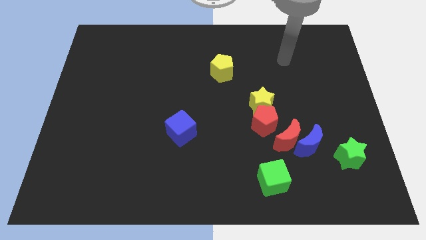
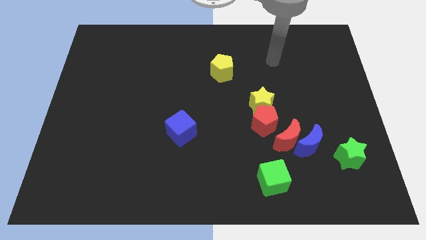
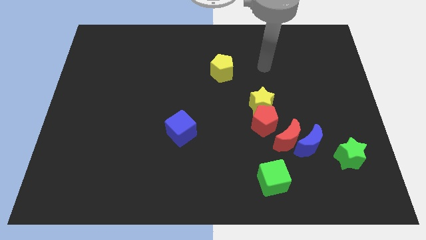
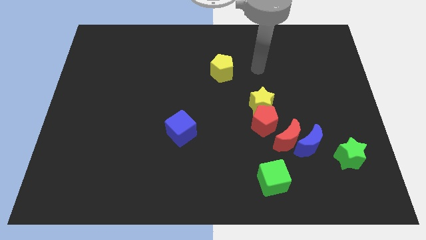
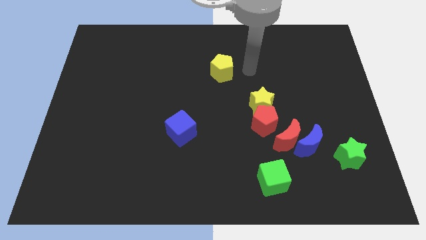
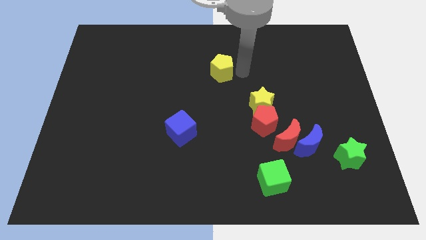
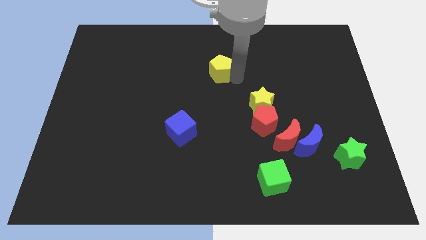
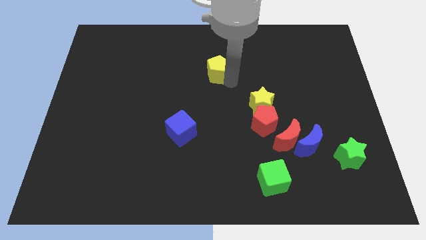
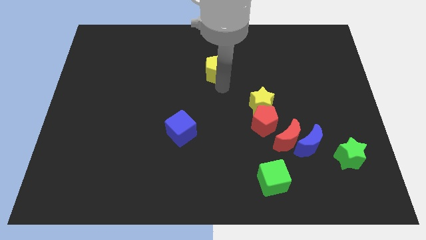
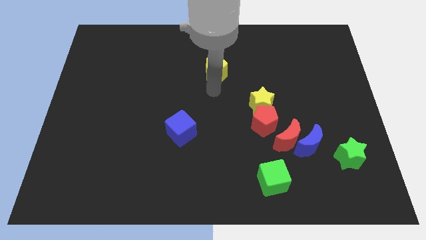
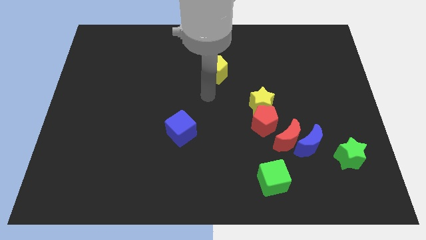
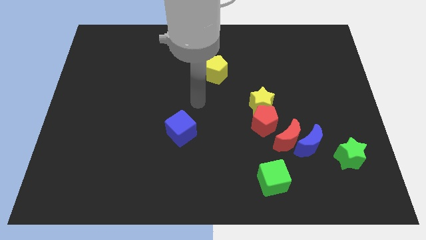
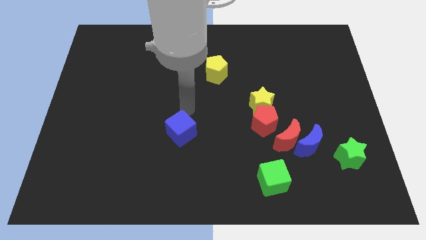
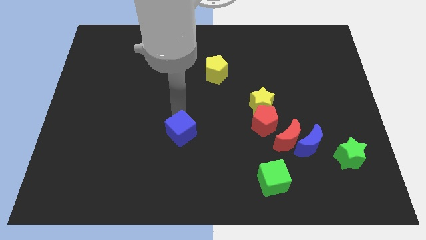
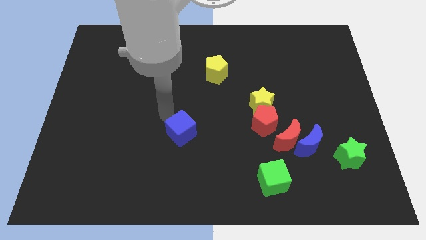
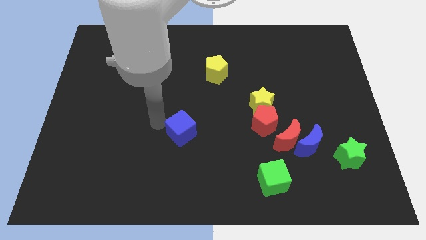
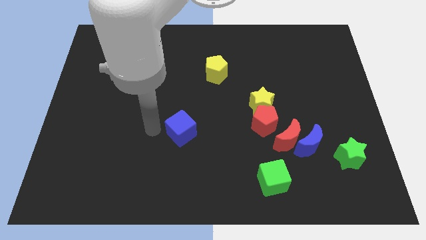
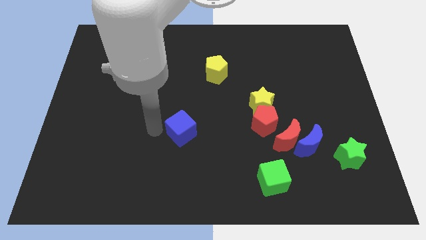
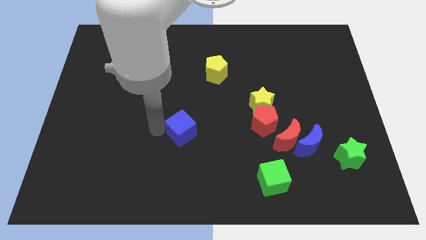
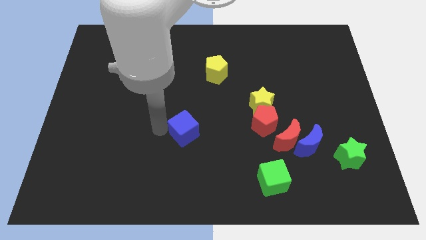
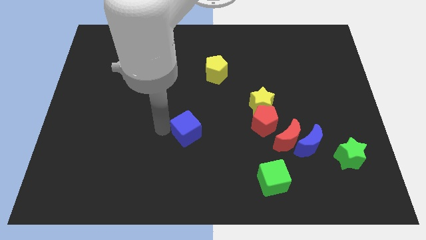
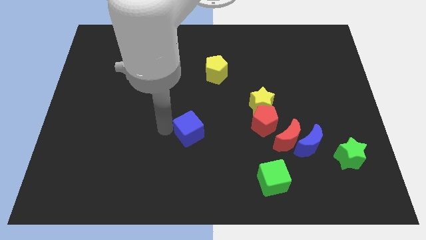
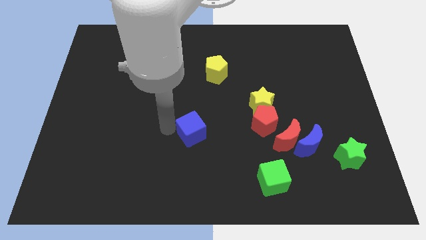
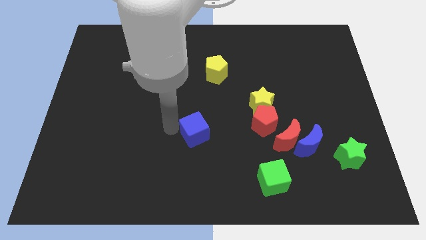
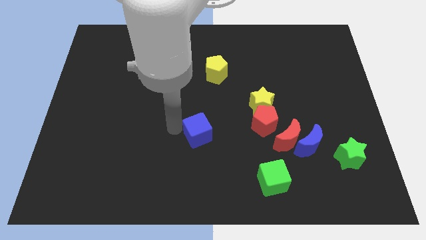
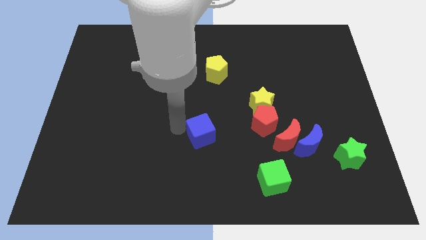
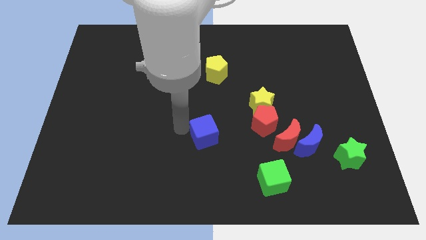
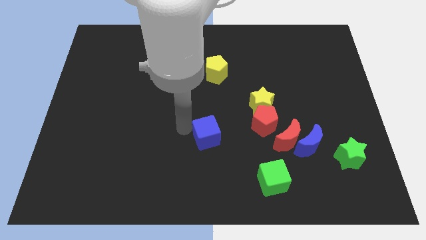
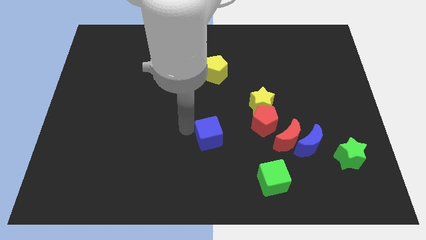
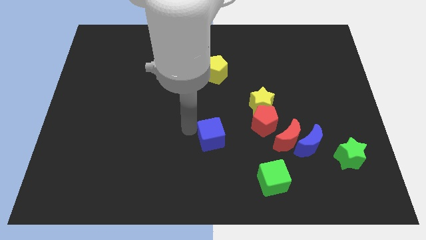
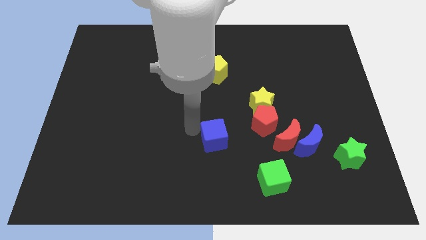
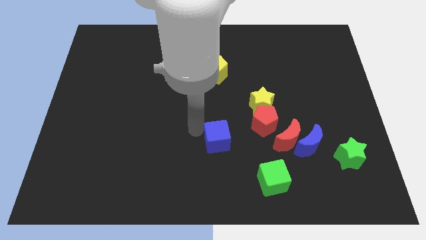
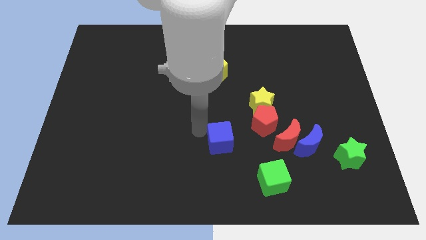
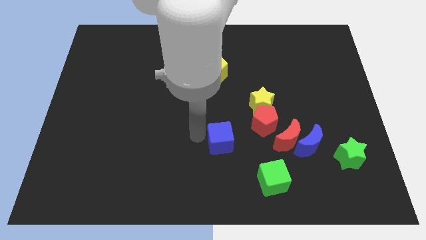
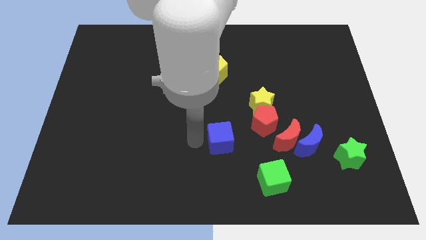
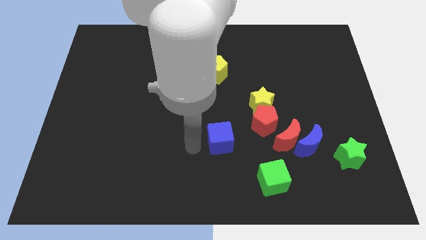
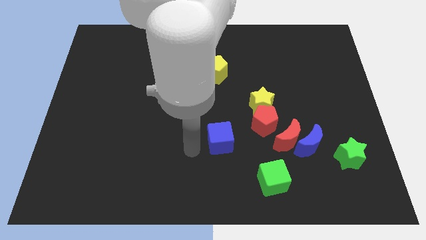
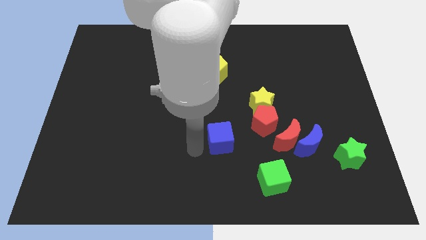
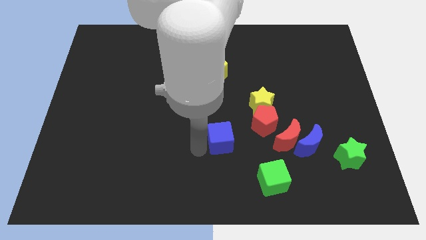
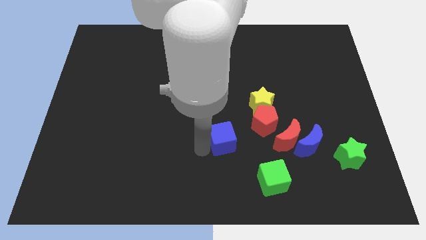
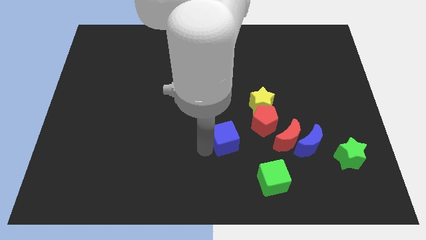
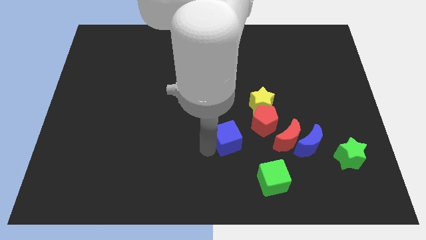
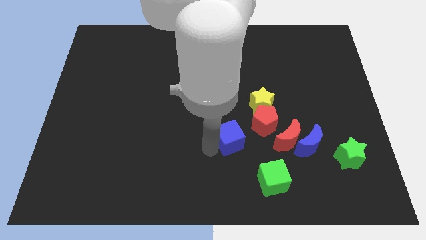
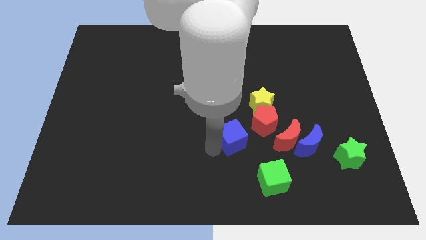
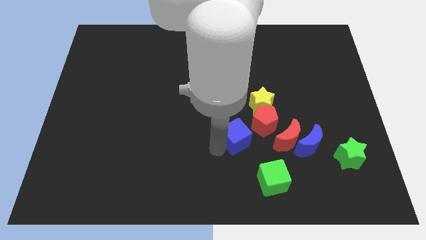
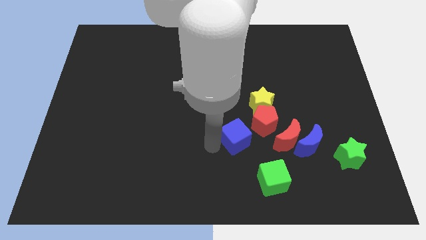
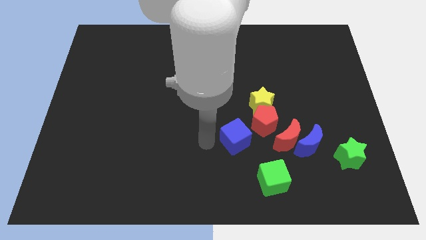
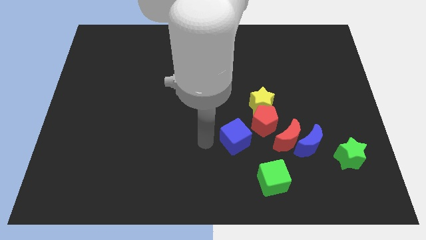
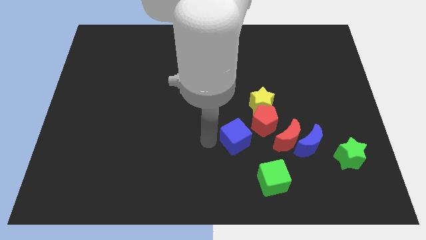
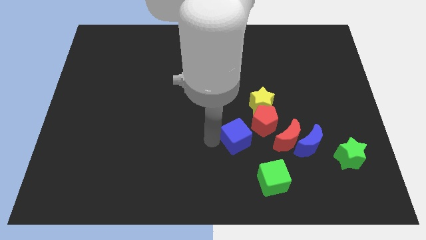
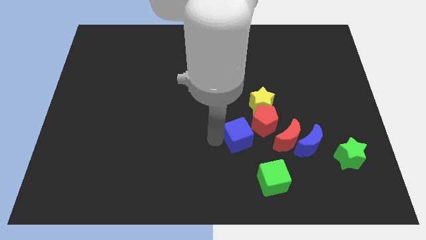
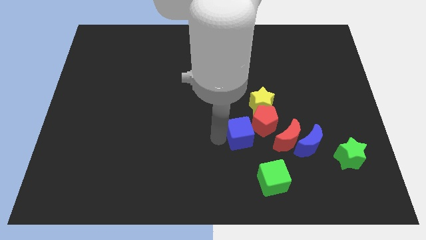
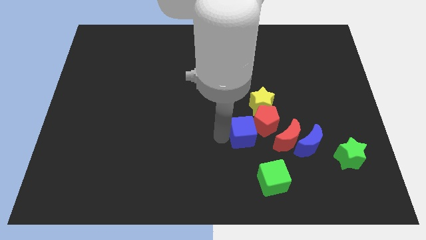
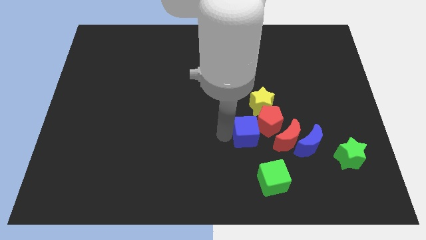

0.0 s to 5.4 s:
move the blue cube above the green cube
